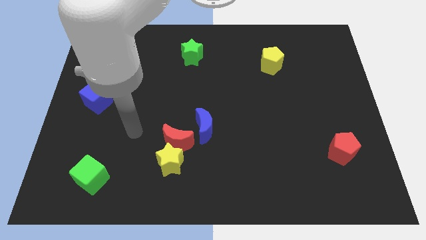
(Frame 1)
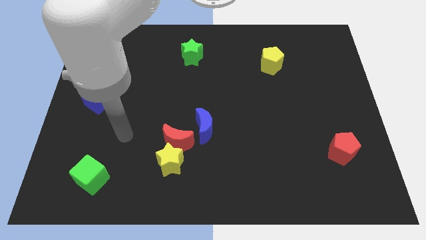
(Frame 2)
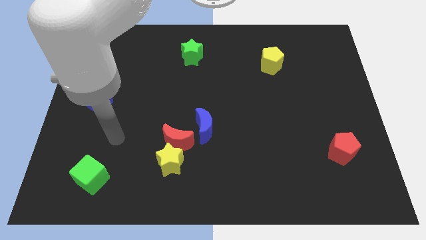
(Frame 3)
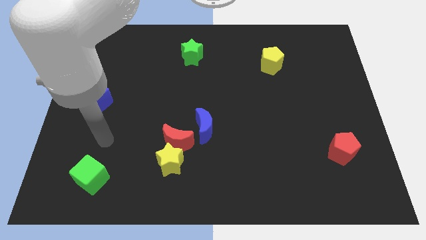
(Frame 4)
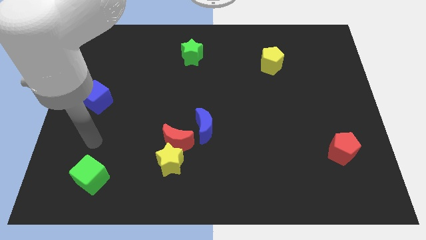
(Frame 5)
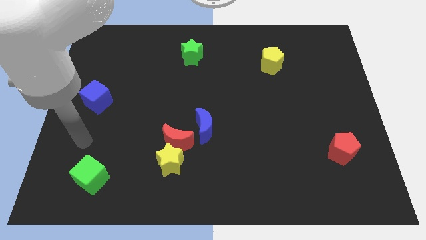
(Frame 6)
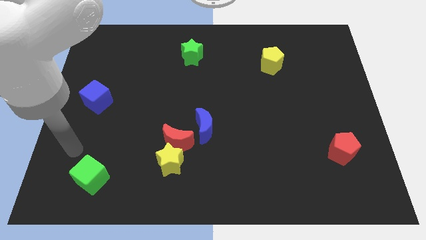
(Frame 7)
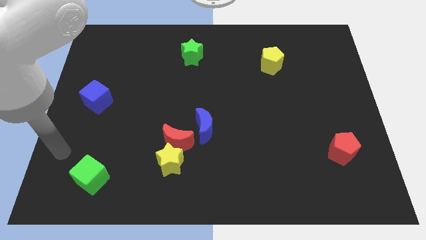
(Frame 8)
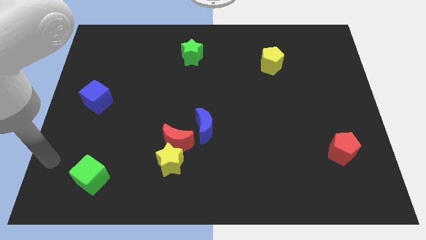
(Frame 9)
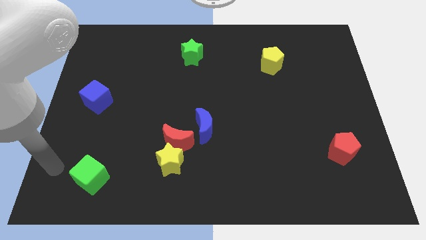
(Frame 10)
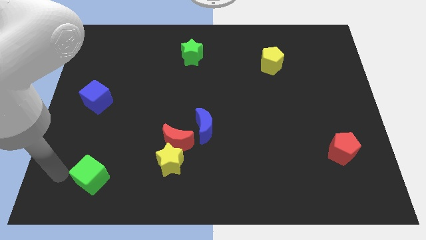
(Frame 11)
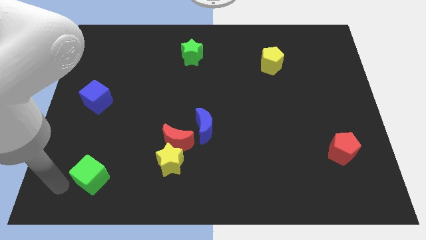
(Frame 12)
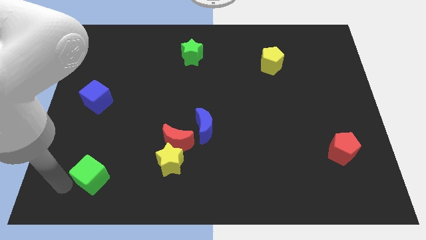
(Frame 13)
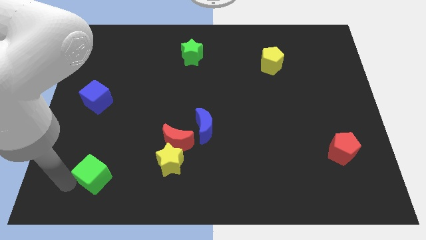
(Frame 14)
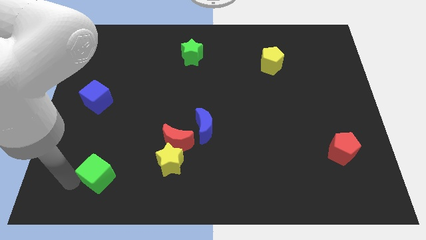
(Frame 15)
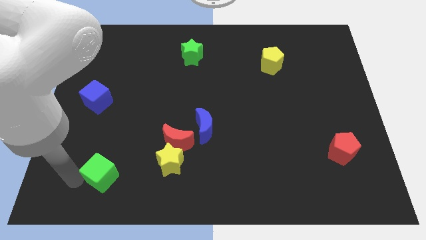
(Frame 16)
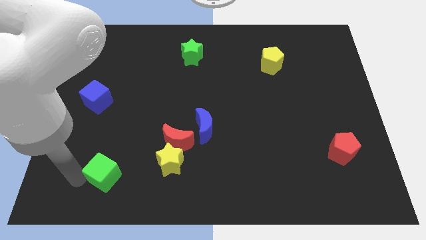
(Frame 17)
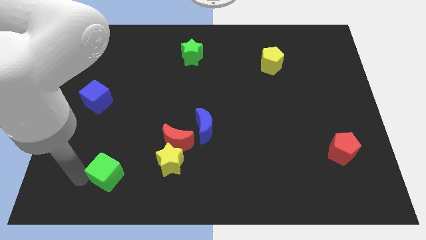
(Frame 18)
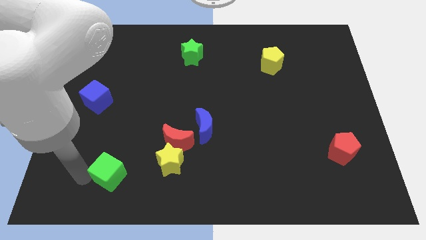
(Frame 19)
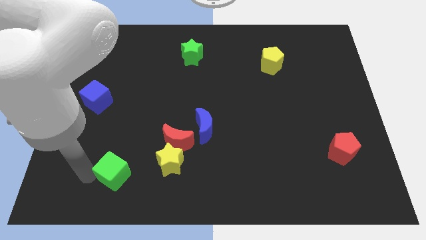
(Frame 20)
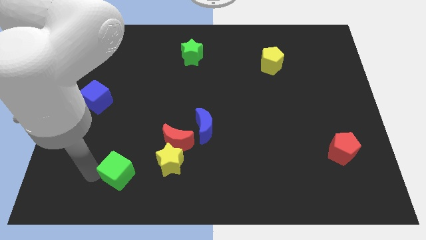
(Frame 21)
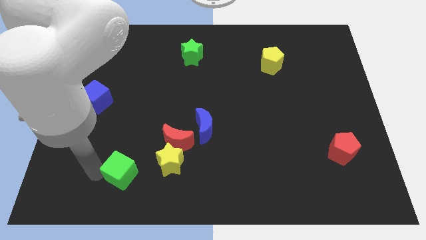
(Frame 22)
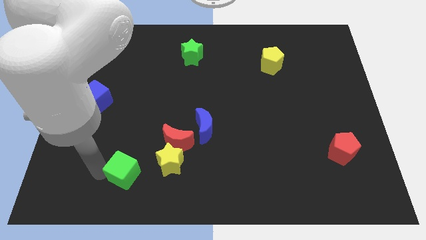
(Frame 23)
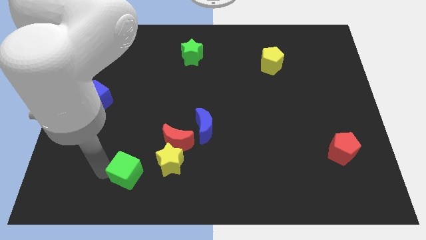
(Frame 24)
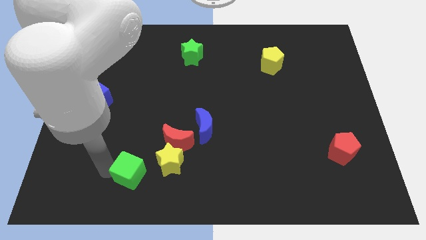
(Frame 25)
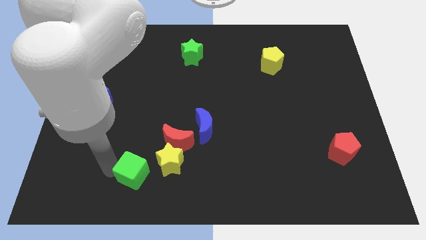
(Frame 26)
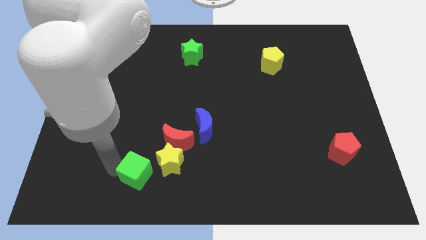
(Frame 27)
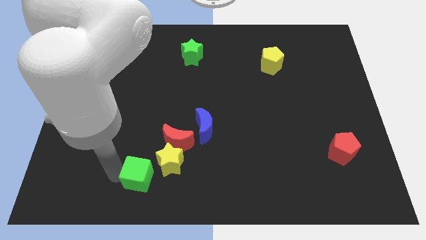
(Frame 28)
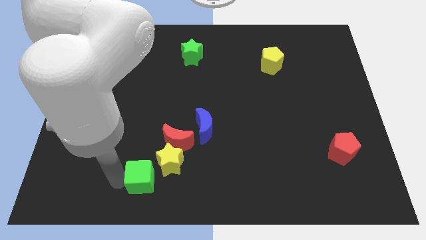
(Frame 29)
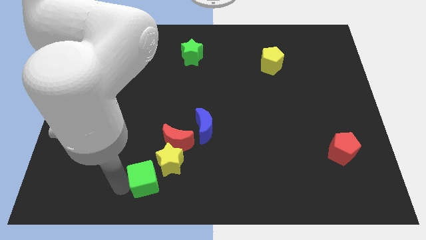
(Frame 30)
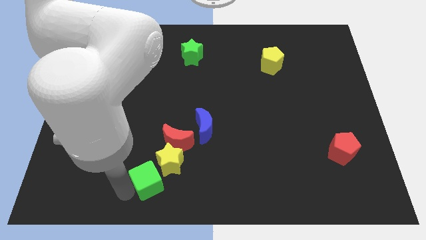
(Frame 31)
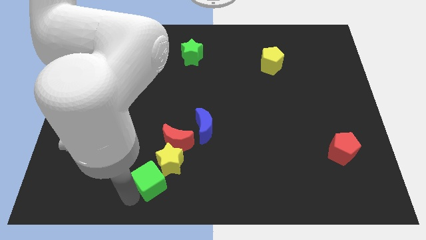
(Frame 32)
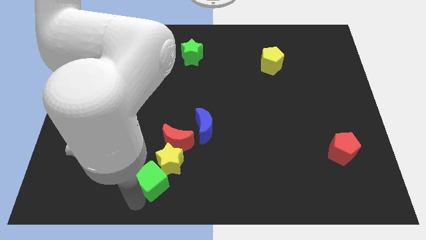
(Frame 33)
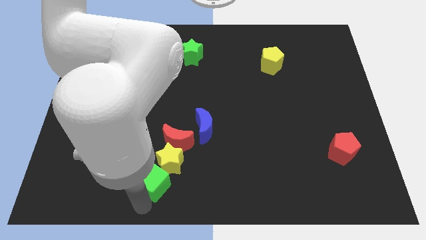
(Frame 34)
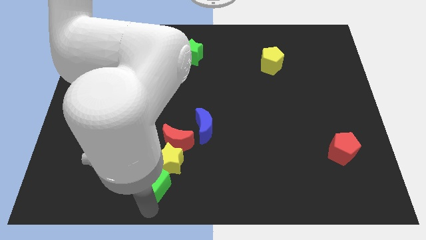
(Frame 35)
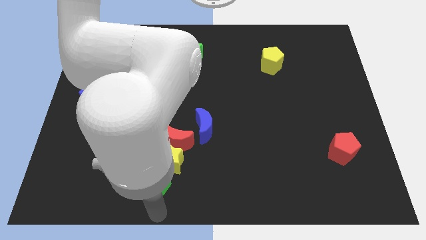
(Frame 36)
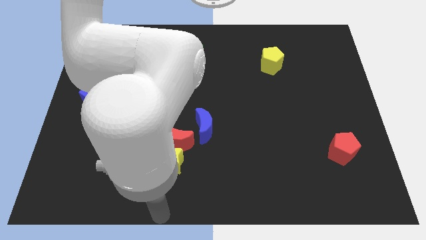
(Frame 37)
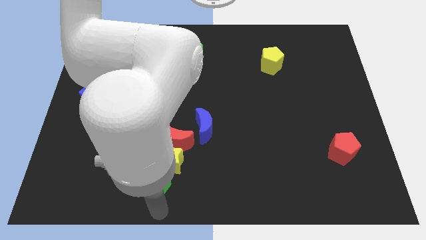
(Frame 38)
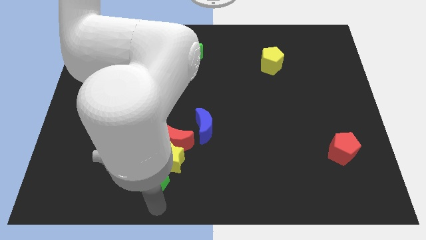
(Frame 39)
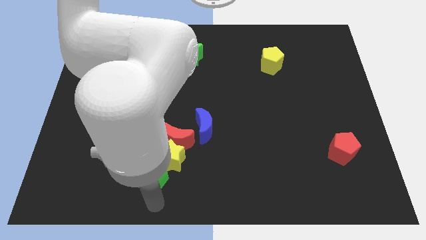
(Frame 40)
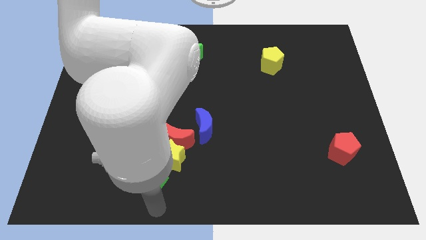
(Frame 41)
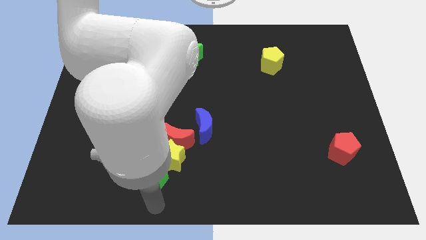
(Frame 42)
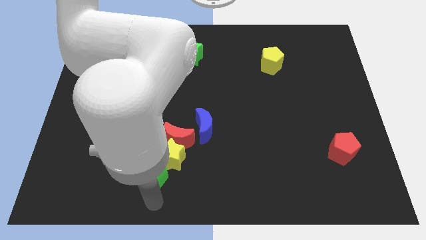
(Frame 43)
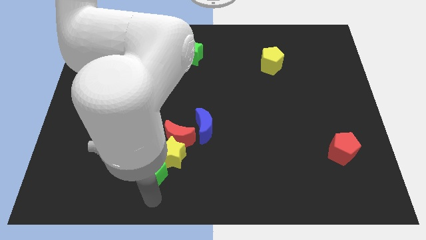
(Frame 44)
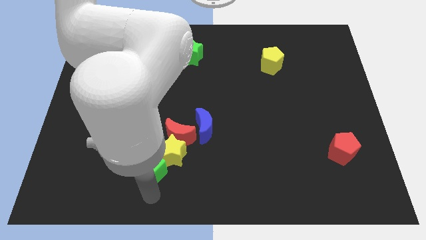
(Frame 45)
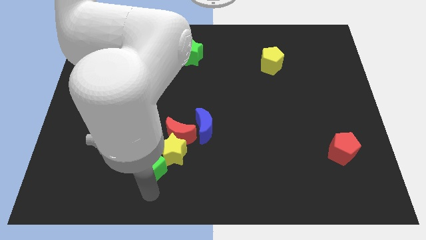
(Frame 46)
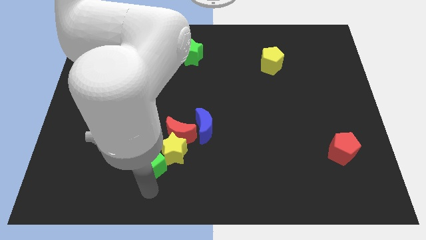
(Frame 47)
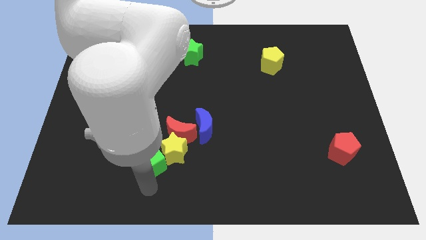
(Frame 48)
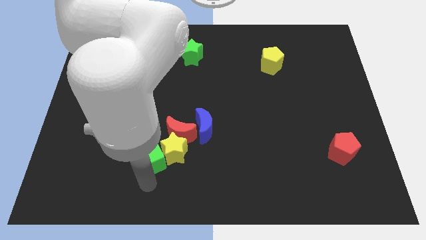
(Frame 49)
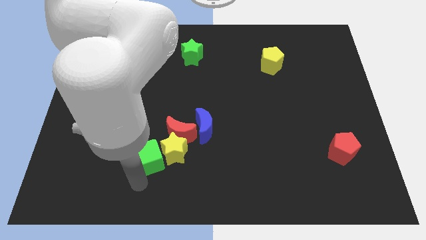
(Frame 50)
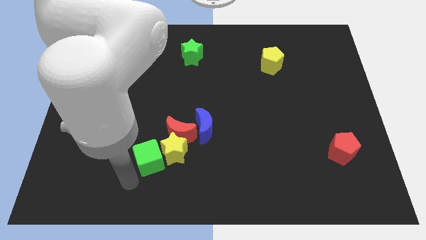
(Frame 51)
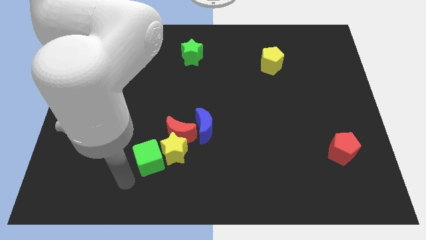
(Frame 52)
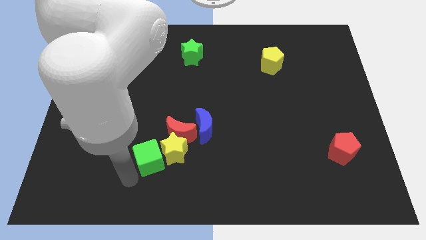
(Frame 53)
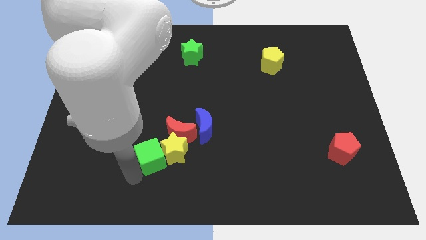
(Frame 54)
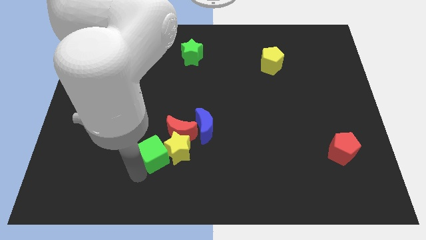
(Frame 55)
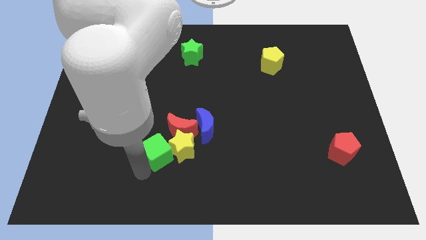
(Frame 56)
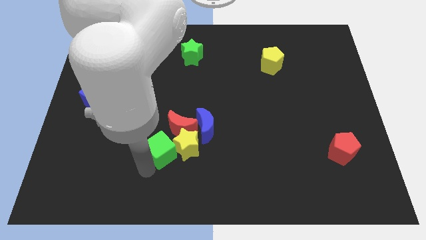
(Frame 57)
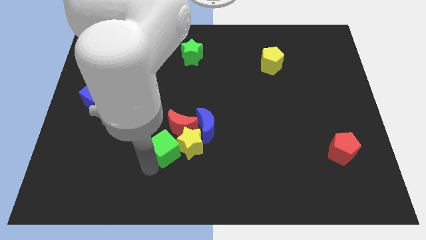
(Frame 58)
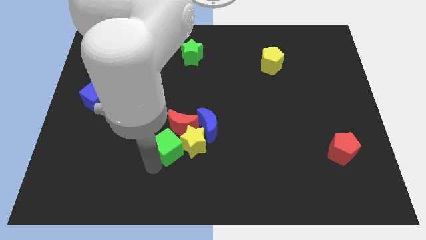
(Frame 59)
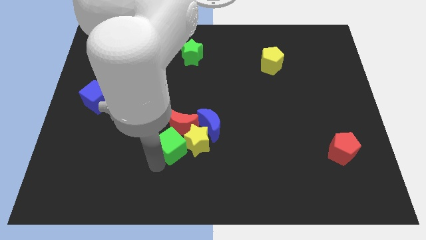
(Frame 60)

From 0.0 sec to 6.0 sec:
put the green cube to the red moon
